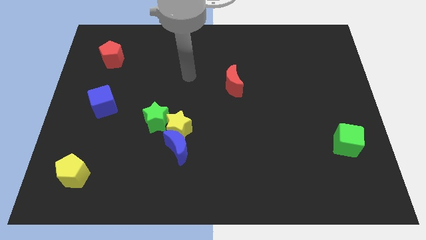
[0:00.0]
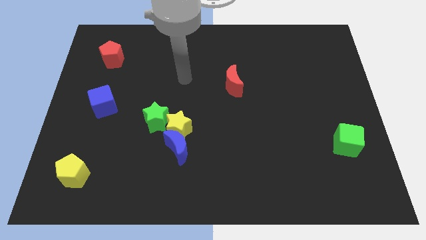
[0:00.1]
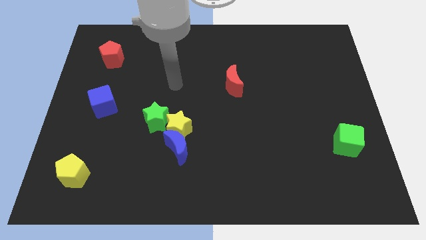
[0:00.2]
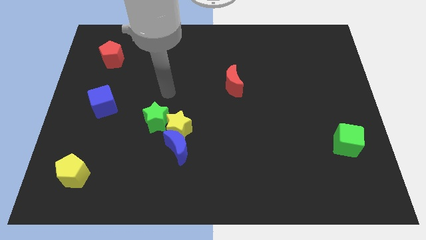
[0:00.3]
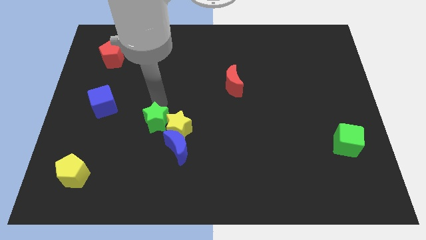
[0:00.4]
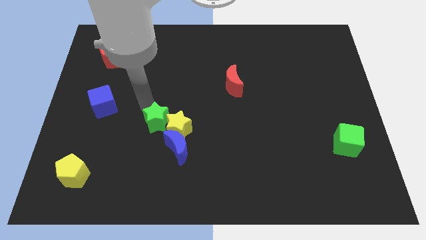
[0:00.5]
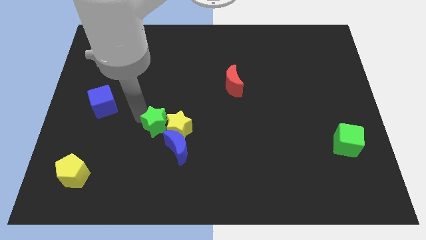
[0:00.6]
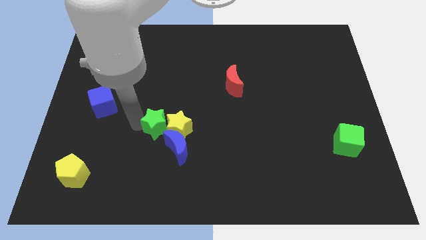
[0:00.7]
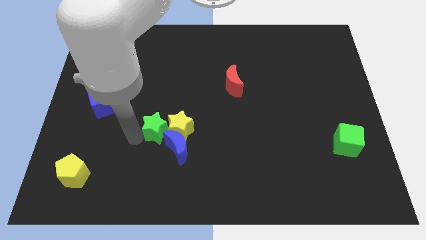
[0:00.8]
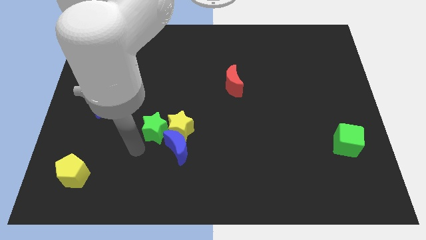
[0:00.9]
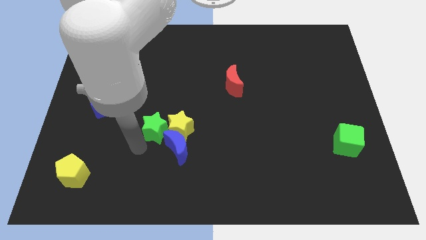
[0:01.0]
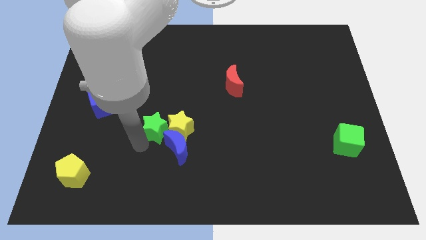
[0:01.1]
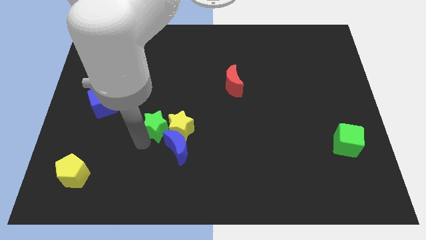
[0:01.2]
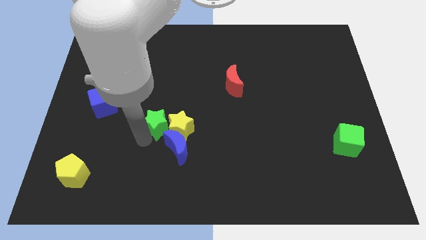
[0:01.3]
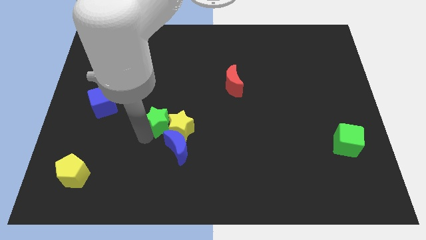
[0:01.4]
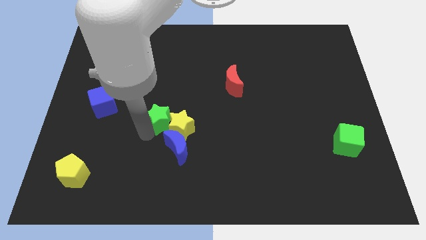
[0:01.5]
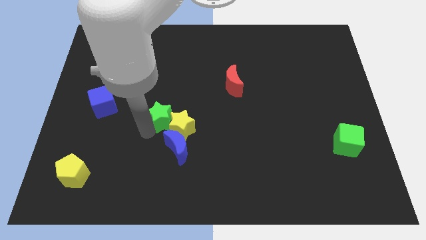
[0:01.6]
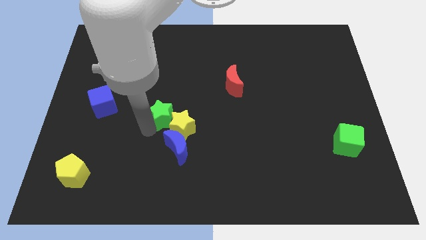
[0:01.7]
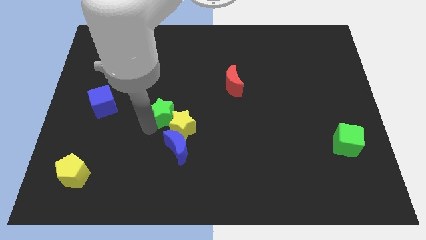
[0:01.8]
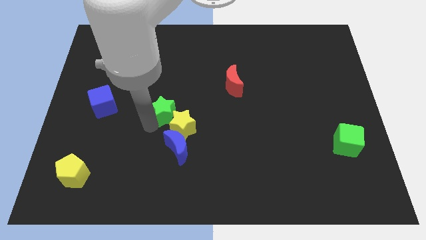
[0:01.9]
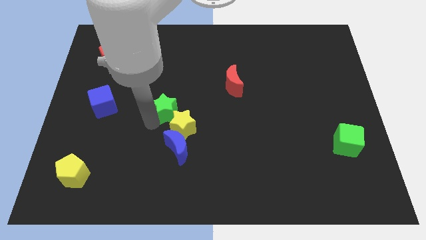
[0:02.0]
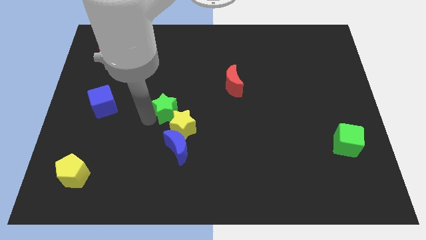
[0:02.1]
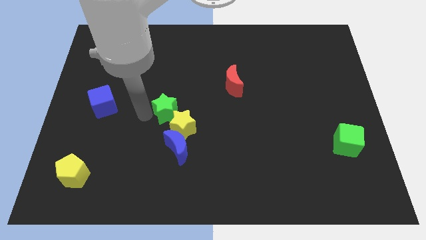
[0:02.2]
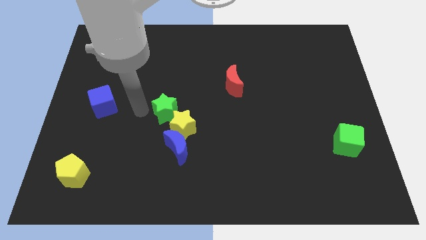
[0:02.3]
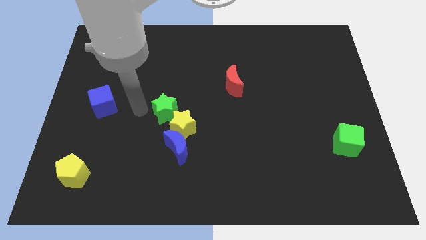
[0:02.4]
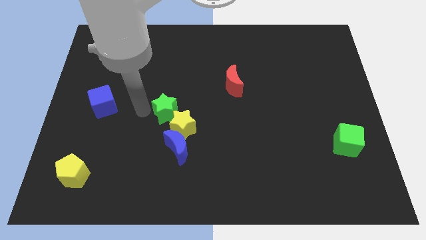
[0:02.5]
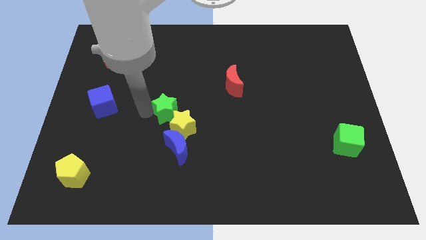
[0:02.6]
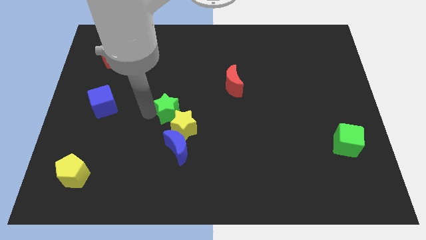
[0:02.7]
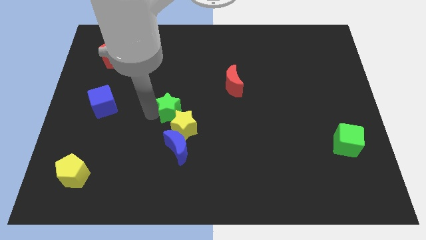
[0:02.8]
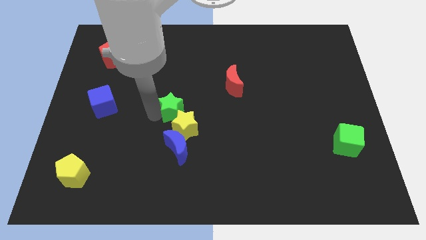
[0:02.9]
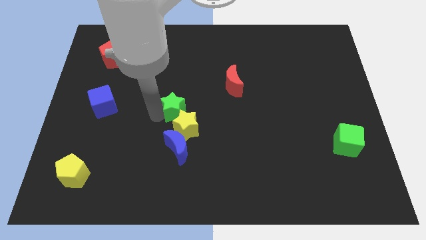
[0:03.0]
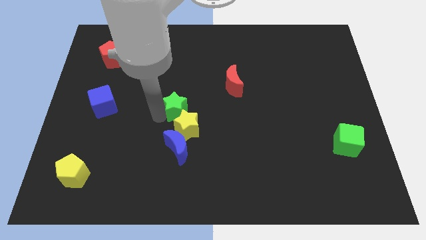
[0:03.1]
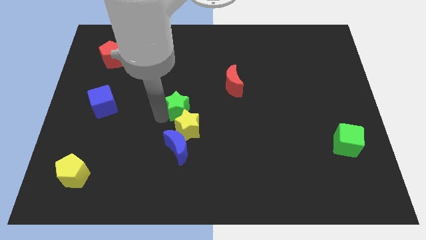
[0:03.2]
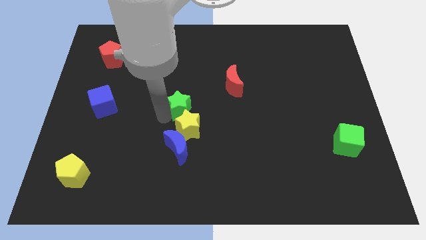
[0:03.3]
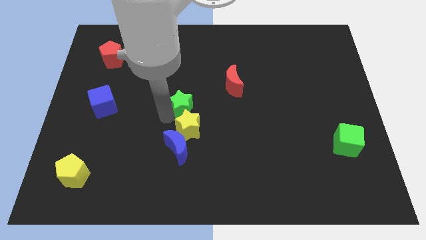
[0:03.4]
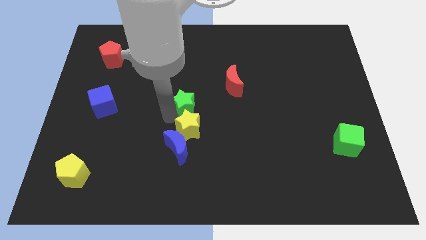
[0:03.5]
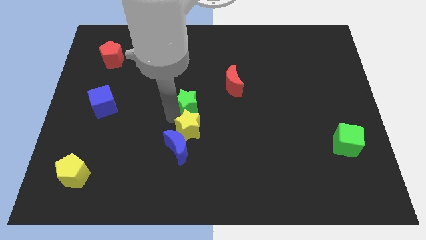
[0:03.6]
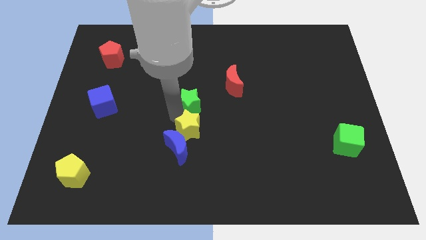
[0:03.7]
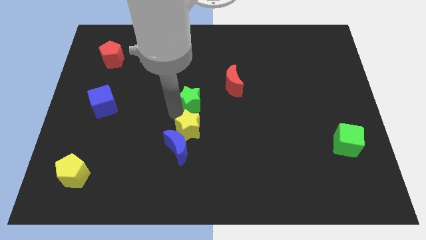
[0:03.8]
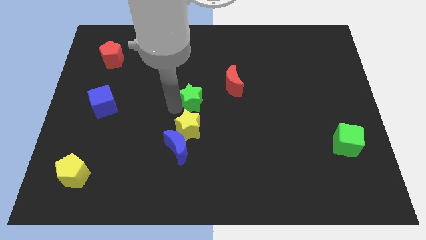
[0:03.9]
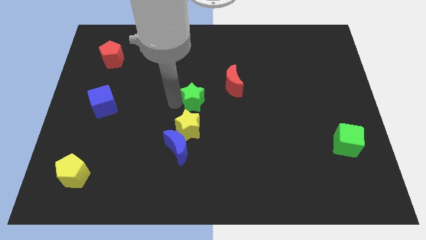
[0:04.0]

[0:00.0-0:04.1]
slide the green star right a bit

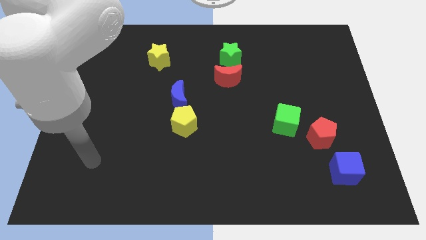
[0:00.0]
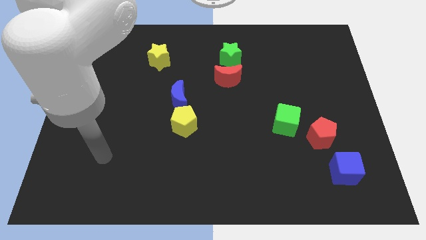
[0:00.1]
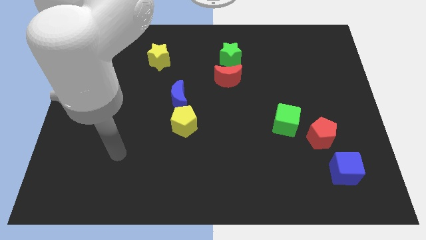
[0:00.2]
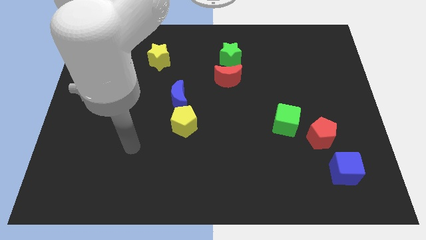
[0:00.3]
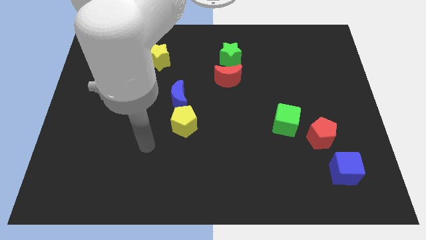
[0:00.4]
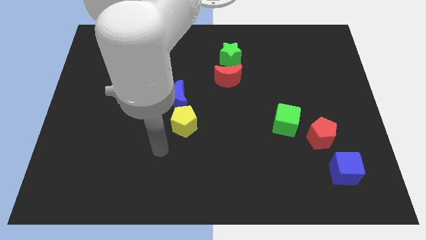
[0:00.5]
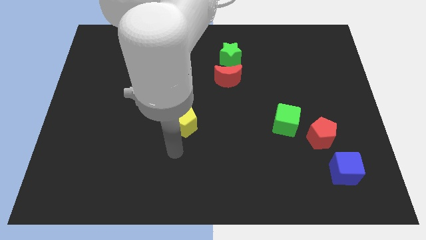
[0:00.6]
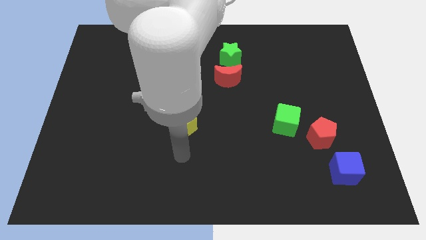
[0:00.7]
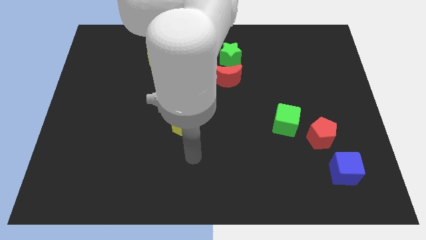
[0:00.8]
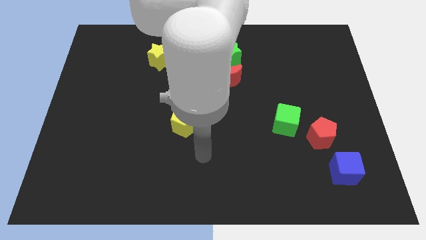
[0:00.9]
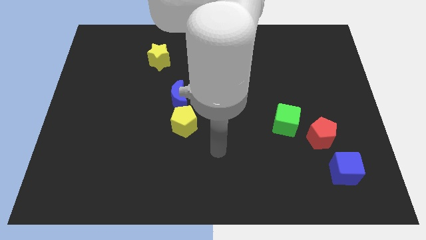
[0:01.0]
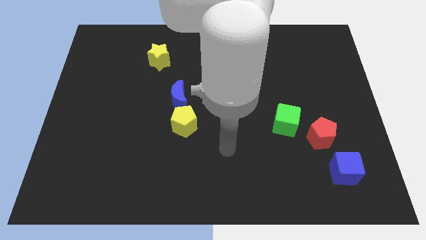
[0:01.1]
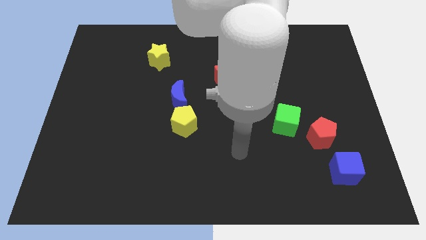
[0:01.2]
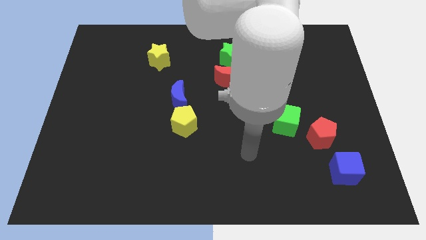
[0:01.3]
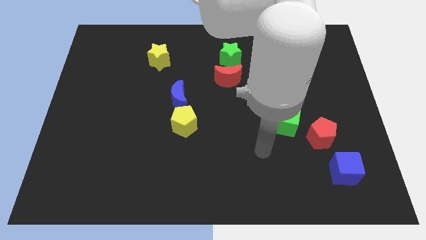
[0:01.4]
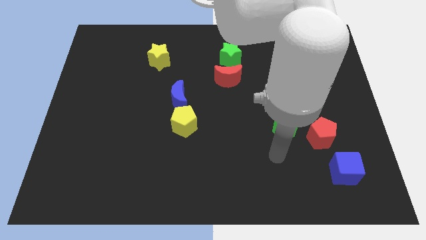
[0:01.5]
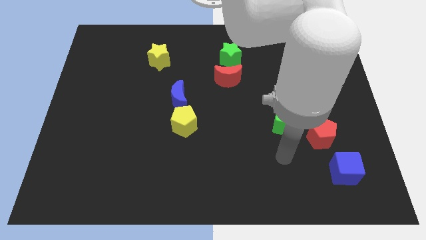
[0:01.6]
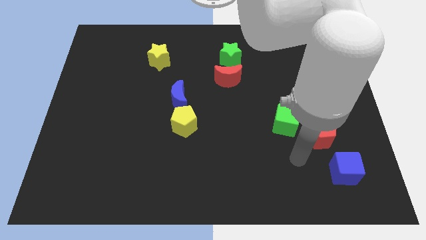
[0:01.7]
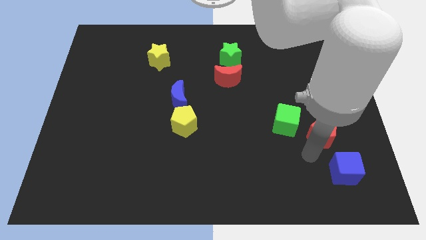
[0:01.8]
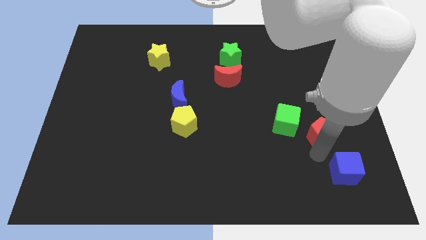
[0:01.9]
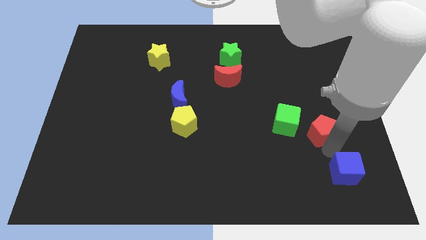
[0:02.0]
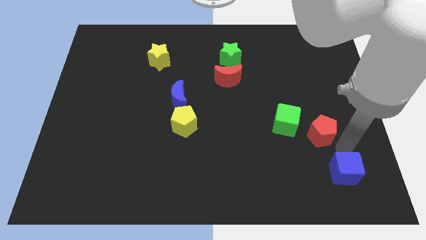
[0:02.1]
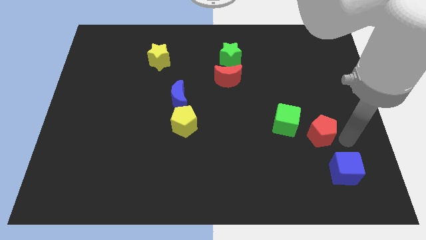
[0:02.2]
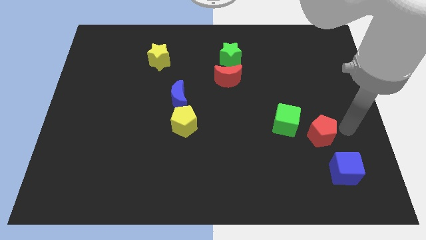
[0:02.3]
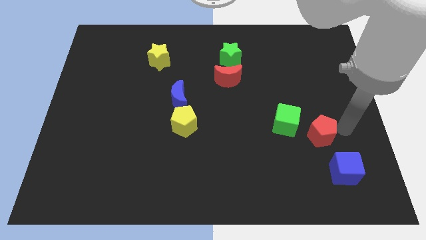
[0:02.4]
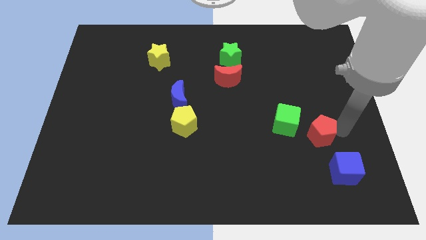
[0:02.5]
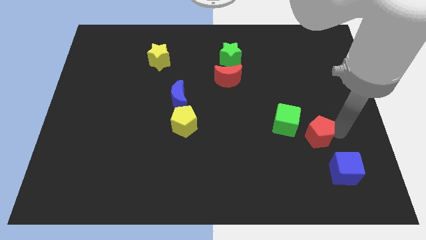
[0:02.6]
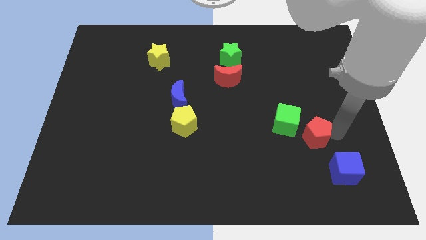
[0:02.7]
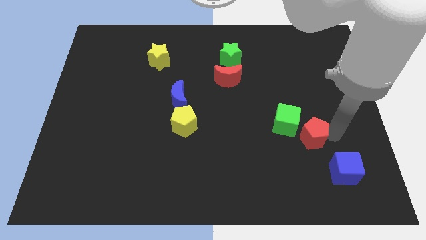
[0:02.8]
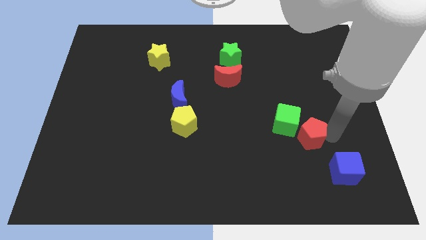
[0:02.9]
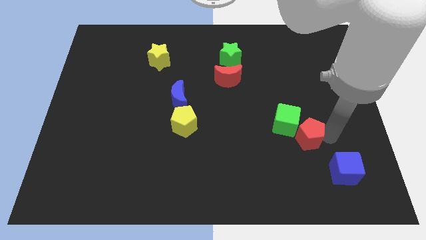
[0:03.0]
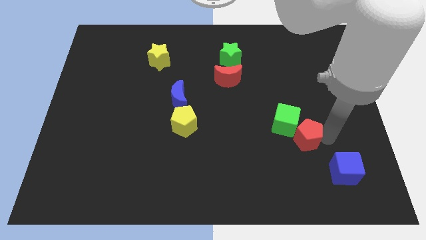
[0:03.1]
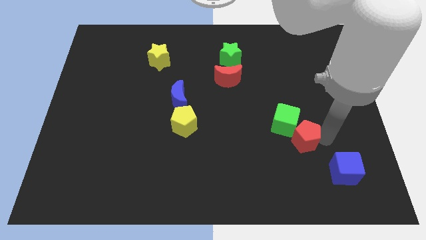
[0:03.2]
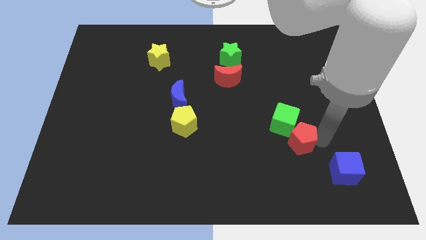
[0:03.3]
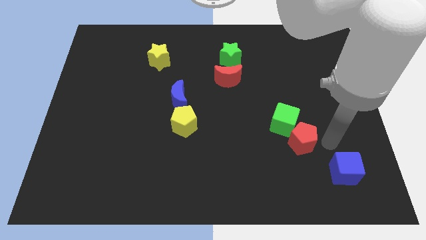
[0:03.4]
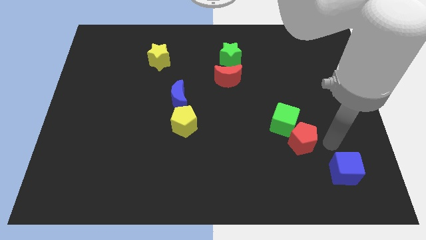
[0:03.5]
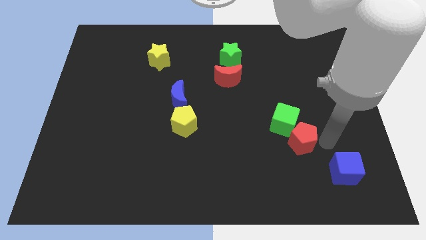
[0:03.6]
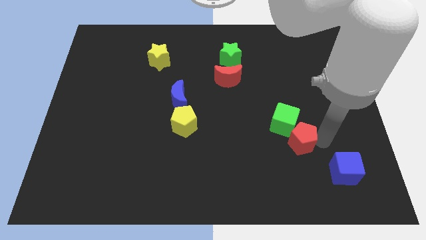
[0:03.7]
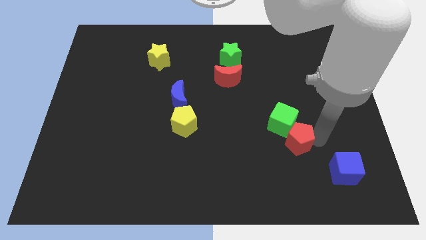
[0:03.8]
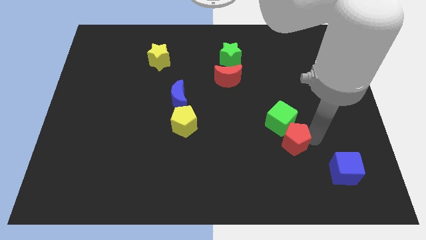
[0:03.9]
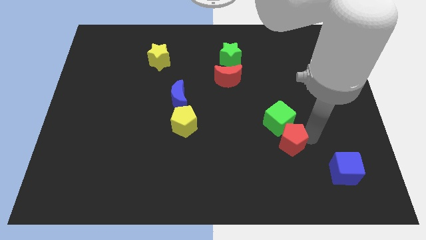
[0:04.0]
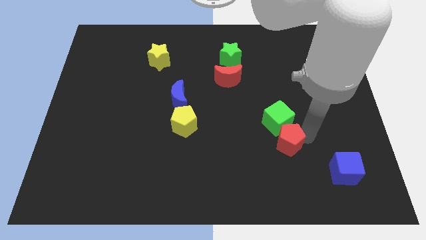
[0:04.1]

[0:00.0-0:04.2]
push the red pentagon a little to the left
